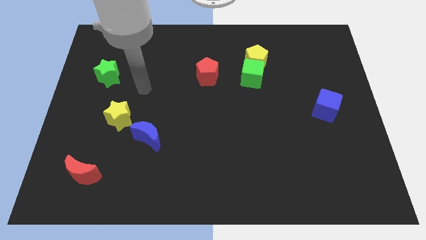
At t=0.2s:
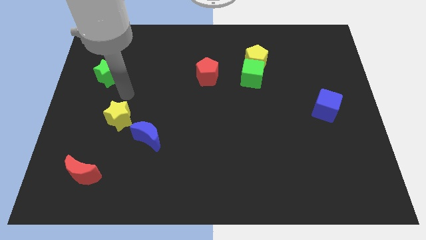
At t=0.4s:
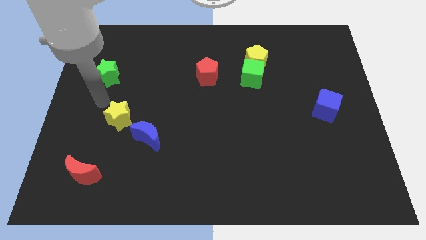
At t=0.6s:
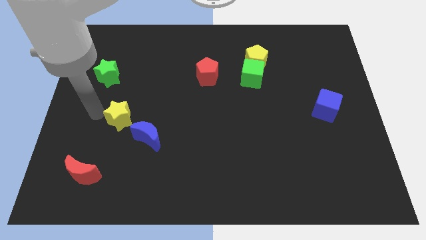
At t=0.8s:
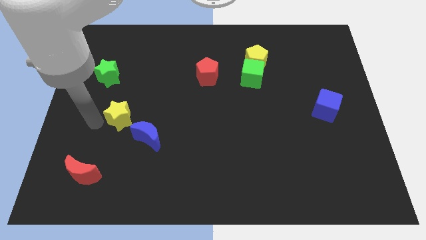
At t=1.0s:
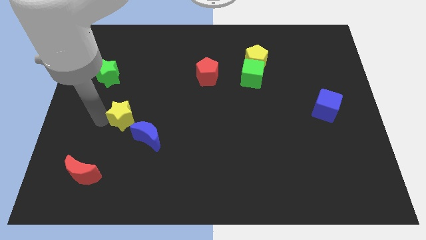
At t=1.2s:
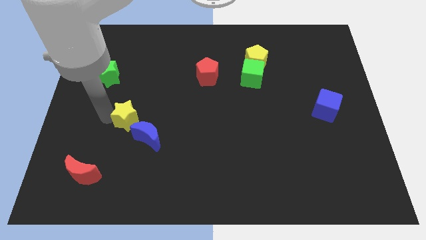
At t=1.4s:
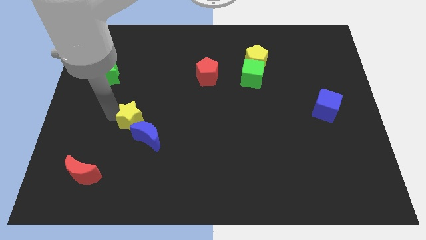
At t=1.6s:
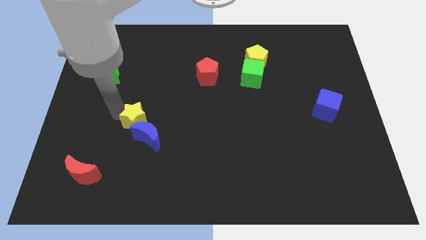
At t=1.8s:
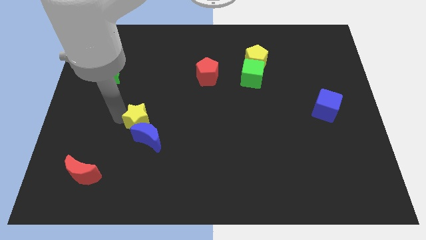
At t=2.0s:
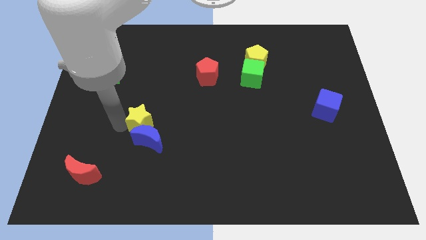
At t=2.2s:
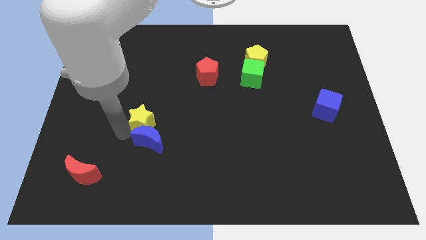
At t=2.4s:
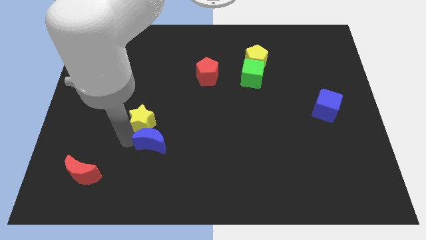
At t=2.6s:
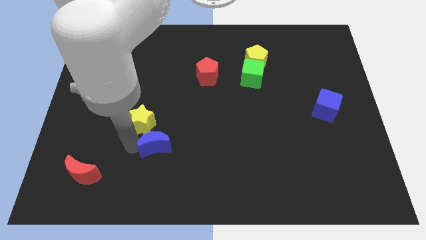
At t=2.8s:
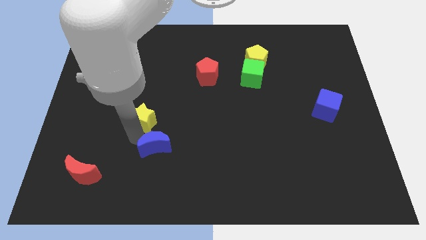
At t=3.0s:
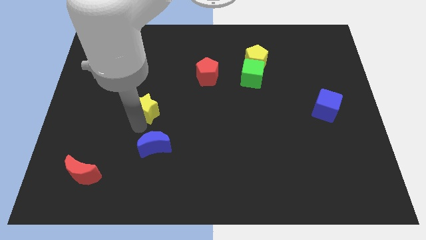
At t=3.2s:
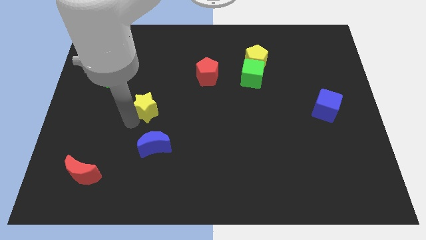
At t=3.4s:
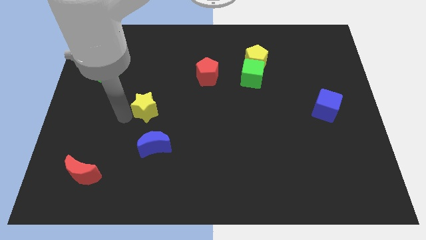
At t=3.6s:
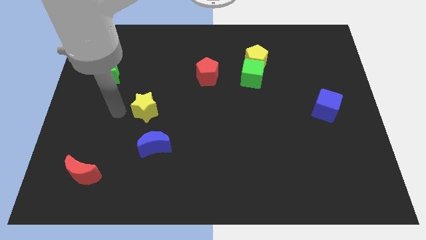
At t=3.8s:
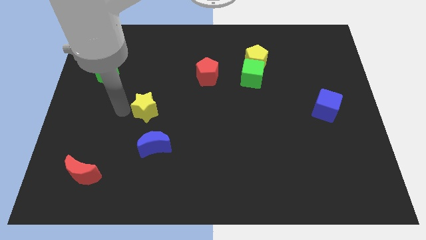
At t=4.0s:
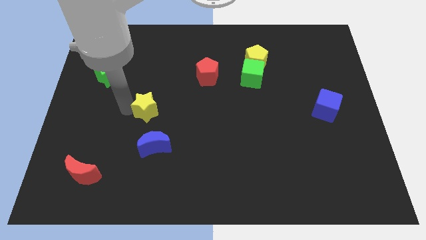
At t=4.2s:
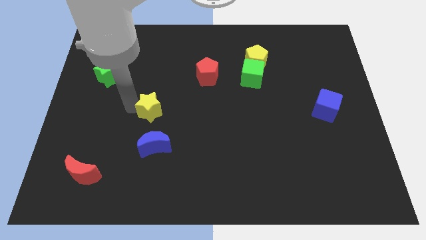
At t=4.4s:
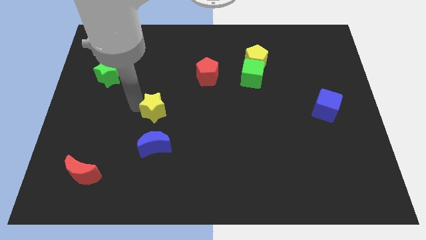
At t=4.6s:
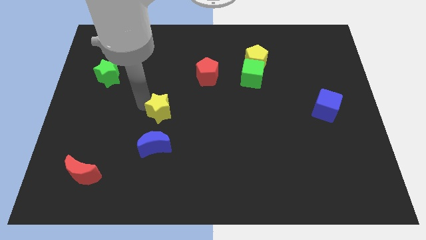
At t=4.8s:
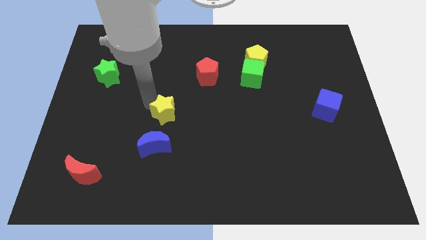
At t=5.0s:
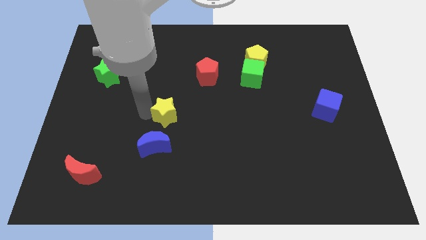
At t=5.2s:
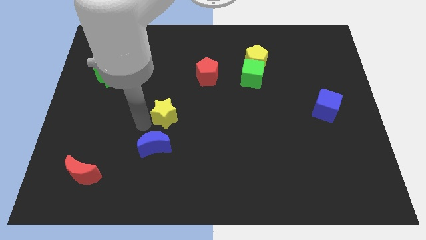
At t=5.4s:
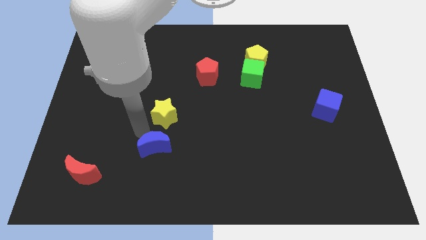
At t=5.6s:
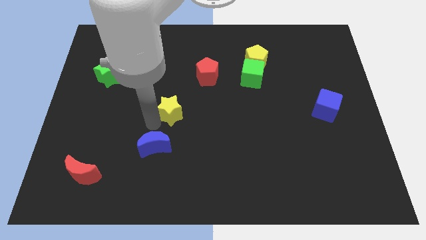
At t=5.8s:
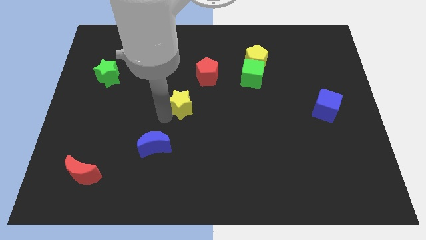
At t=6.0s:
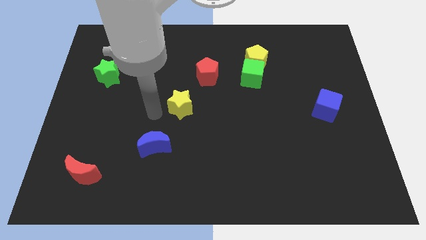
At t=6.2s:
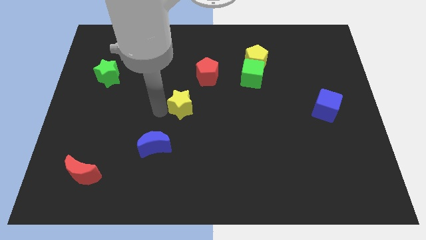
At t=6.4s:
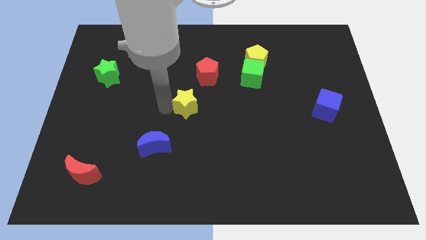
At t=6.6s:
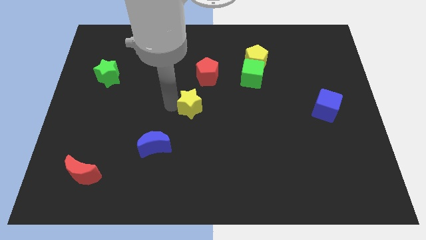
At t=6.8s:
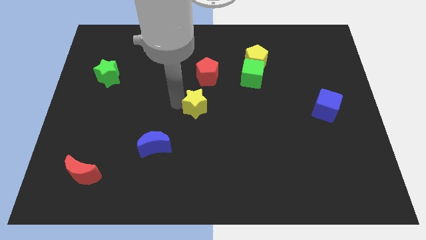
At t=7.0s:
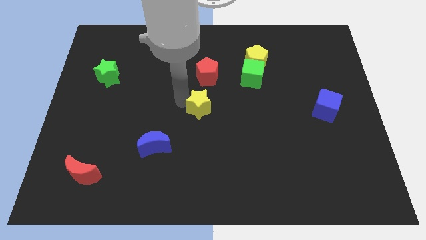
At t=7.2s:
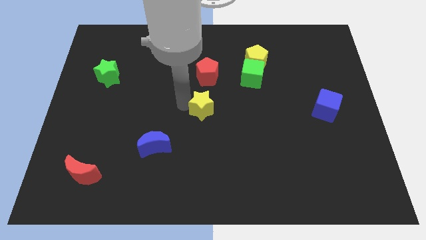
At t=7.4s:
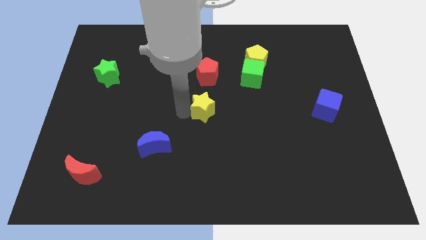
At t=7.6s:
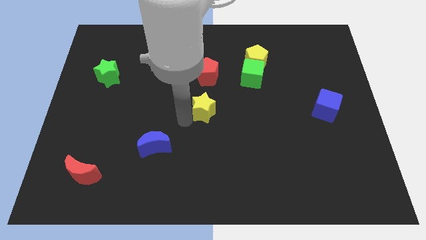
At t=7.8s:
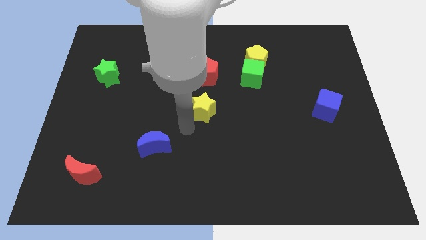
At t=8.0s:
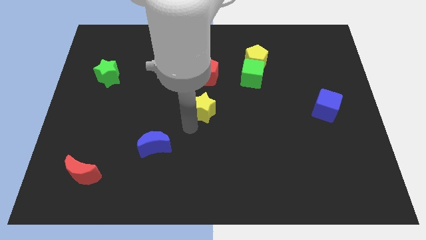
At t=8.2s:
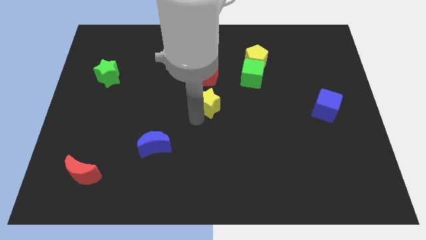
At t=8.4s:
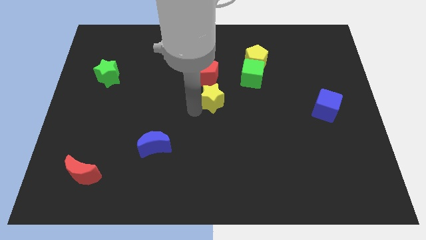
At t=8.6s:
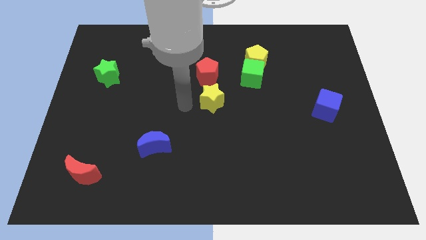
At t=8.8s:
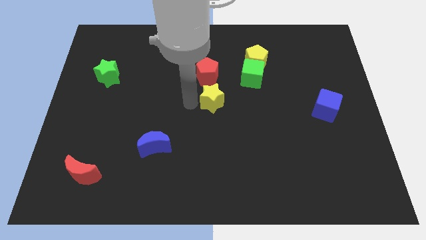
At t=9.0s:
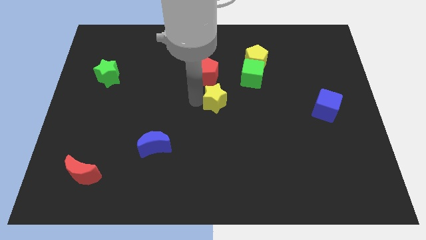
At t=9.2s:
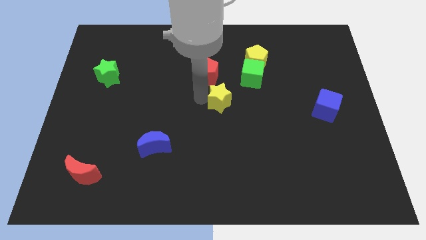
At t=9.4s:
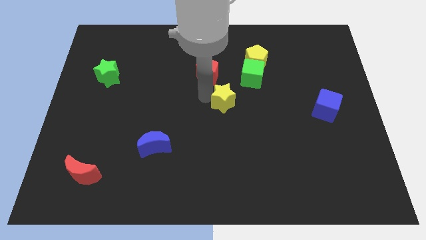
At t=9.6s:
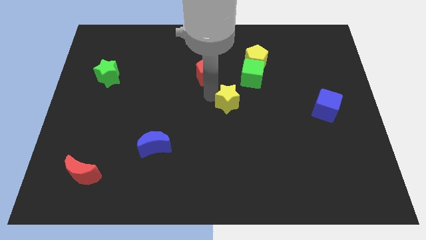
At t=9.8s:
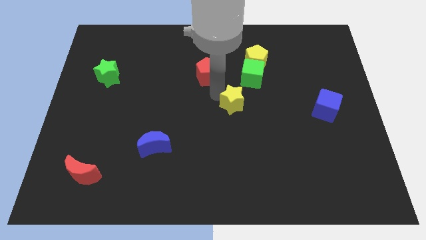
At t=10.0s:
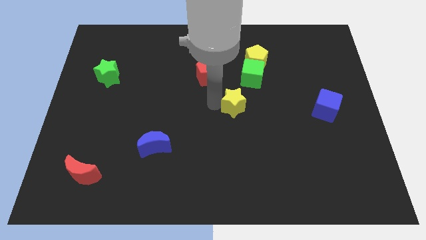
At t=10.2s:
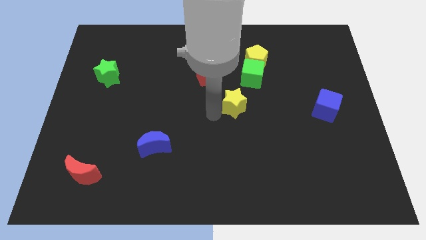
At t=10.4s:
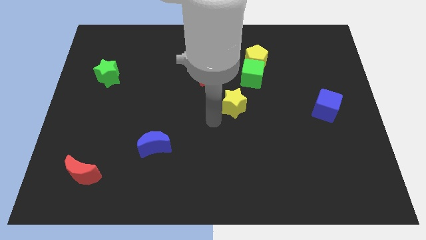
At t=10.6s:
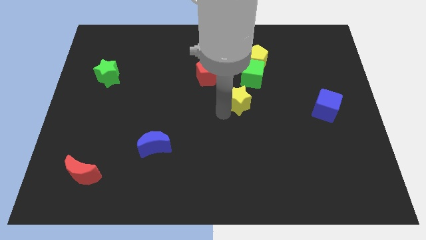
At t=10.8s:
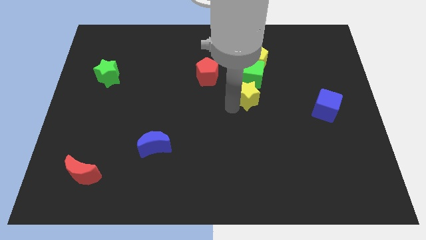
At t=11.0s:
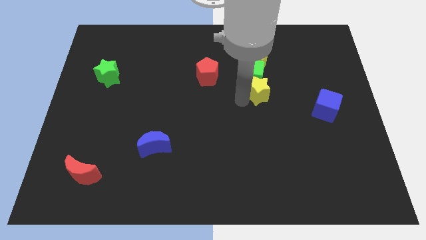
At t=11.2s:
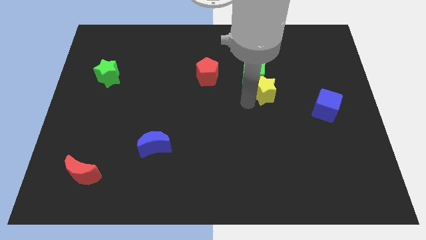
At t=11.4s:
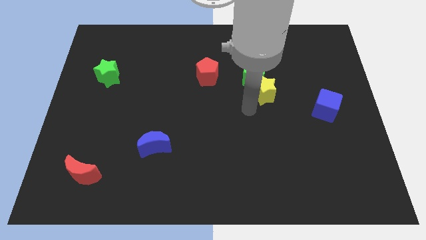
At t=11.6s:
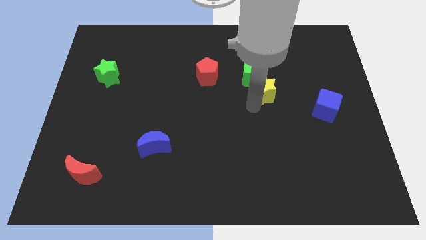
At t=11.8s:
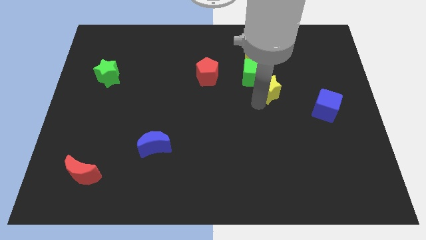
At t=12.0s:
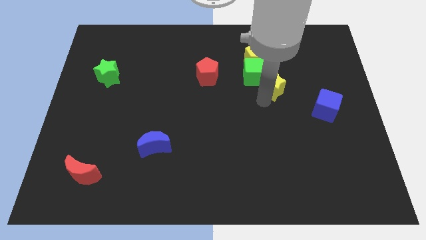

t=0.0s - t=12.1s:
slide the yellow star to the bottom right of the yellow pentagon

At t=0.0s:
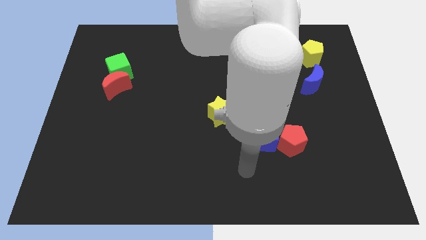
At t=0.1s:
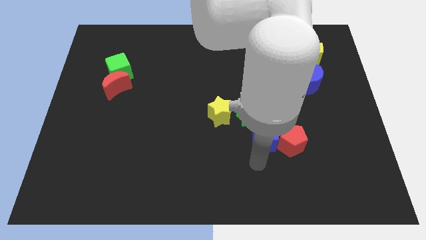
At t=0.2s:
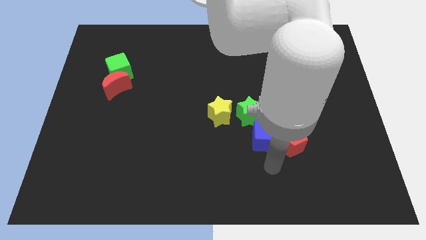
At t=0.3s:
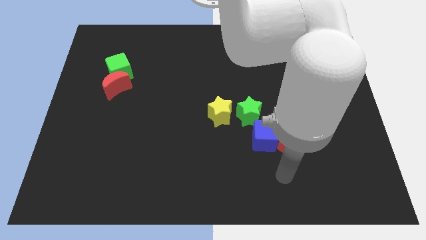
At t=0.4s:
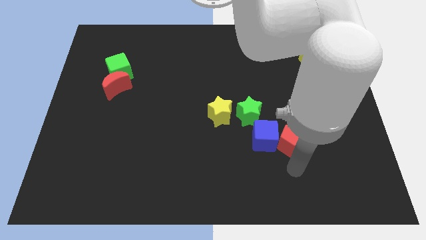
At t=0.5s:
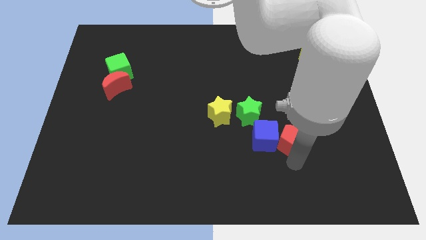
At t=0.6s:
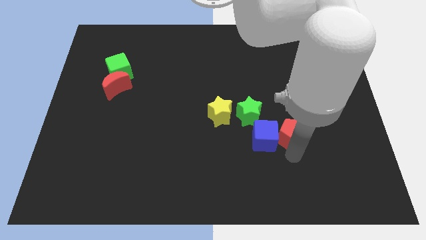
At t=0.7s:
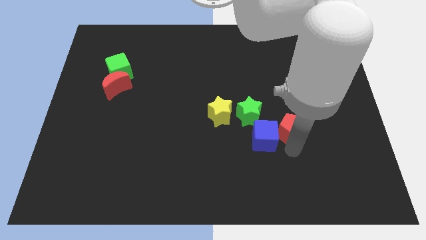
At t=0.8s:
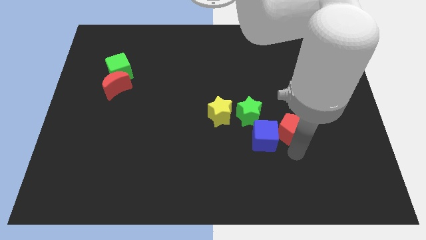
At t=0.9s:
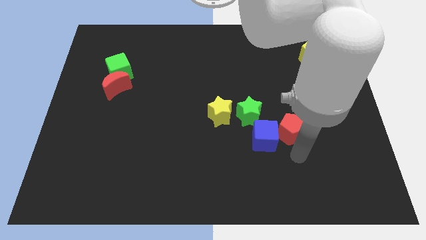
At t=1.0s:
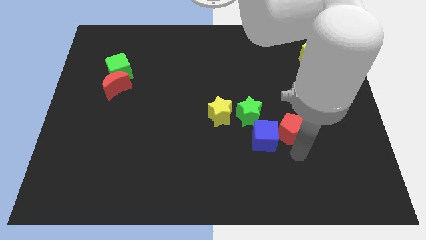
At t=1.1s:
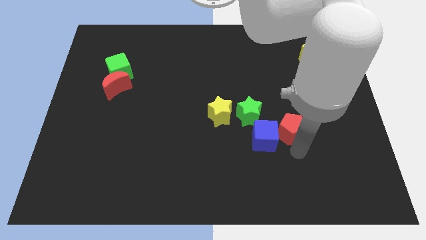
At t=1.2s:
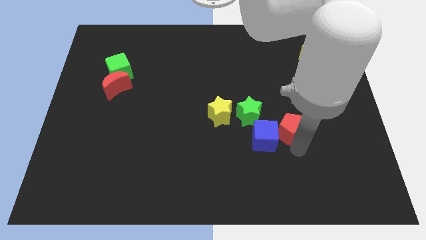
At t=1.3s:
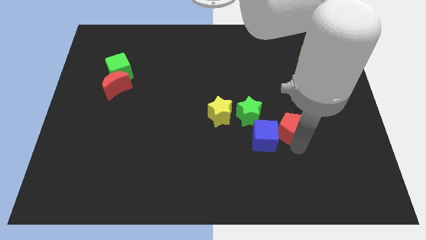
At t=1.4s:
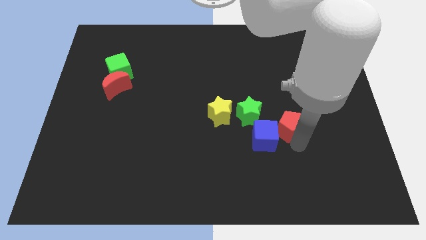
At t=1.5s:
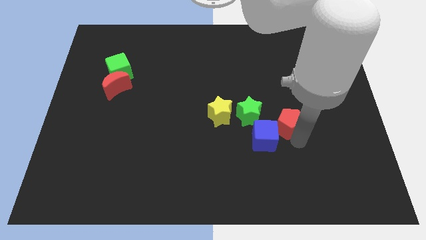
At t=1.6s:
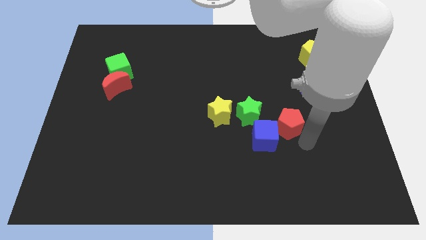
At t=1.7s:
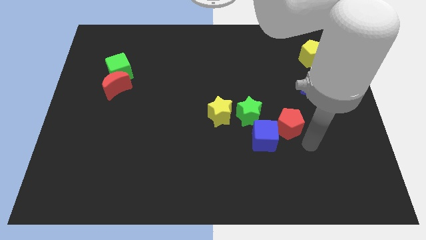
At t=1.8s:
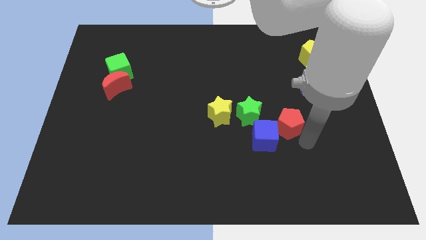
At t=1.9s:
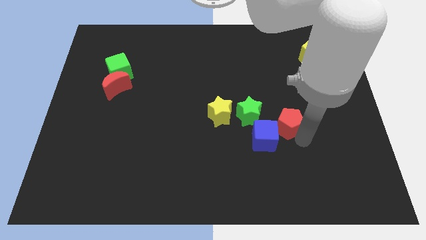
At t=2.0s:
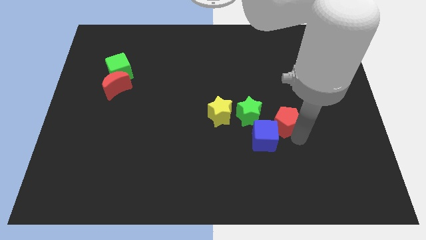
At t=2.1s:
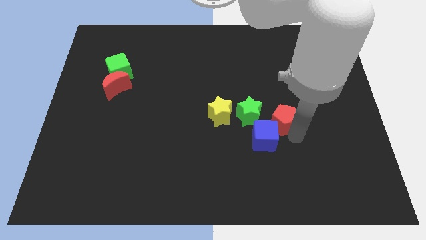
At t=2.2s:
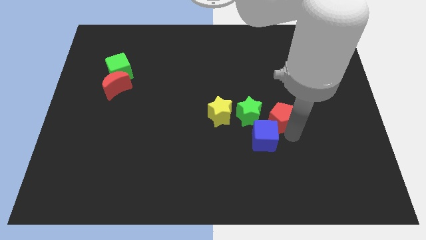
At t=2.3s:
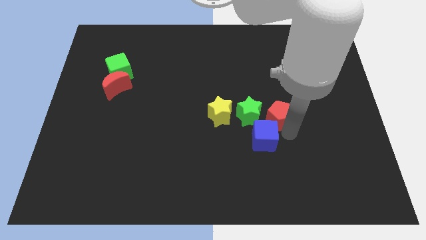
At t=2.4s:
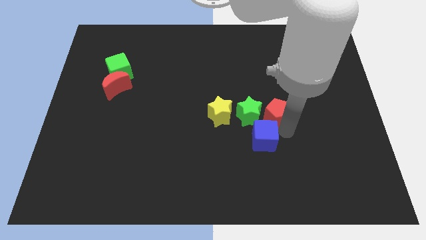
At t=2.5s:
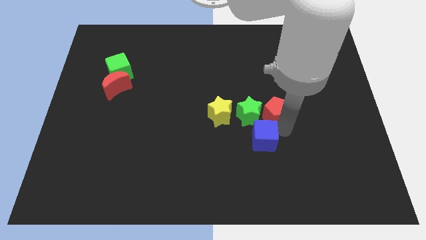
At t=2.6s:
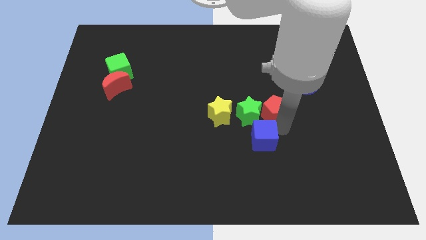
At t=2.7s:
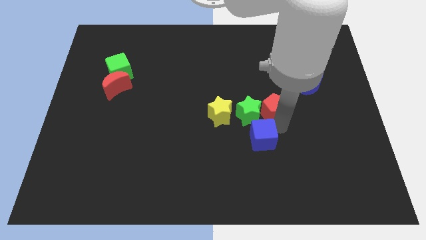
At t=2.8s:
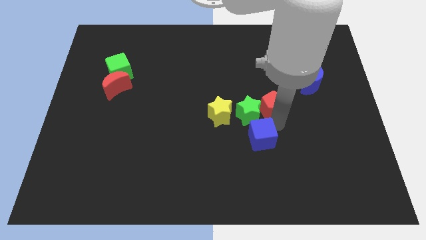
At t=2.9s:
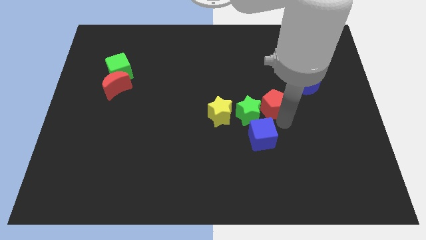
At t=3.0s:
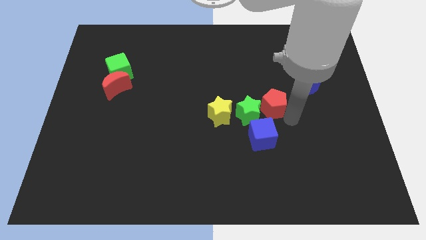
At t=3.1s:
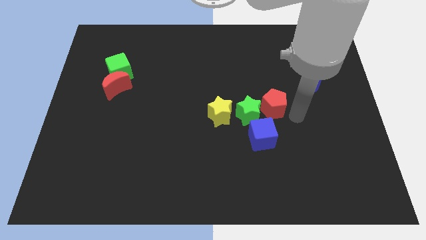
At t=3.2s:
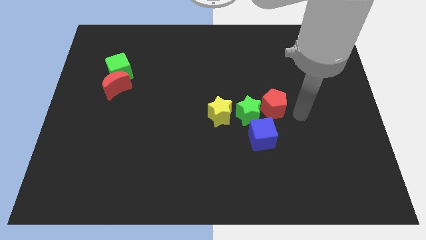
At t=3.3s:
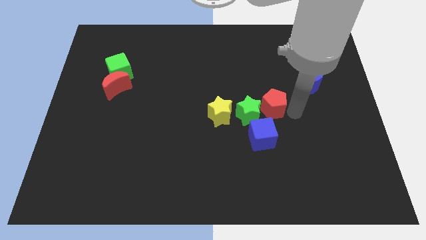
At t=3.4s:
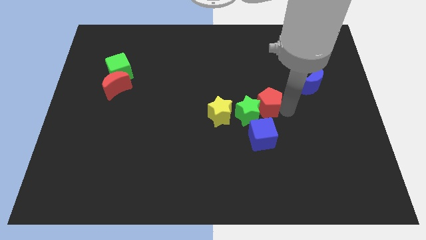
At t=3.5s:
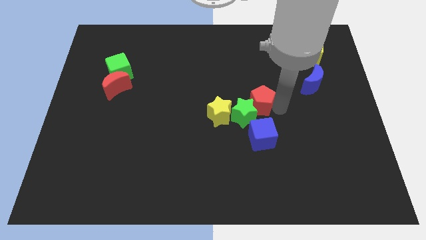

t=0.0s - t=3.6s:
put the red pentagon to the top right side of the yellow star
